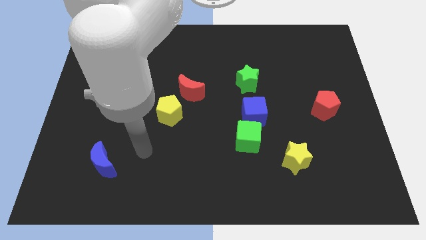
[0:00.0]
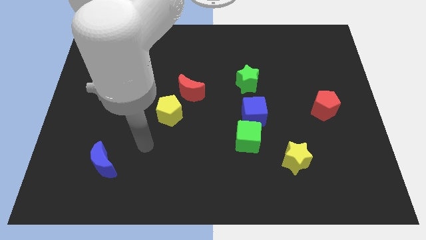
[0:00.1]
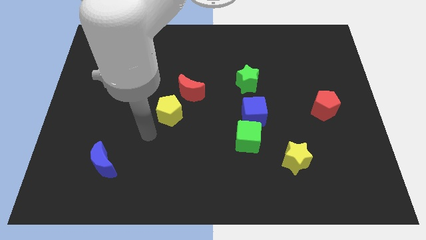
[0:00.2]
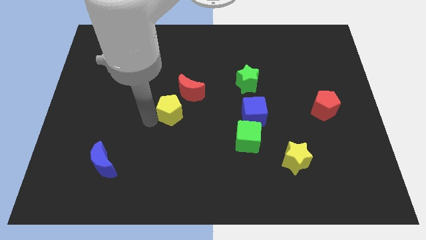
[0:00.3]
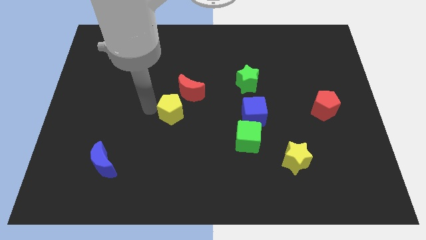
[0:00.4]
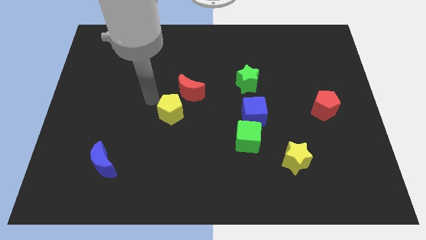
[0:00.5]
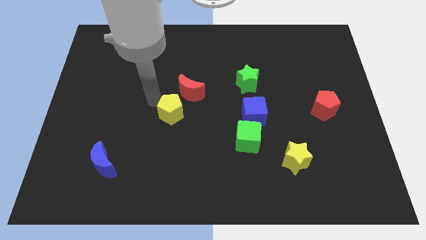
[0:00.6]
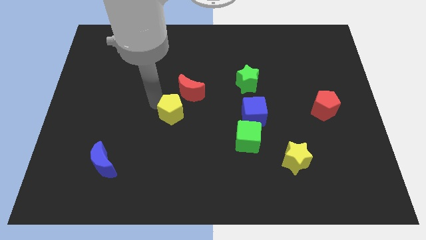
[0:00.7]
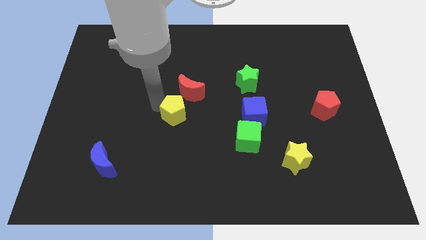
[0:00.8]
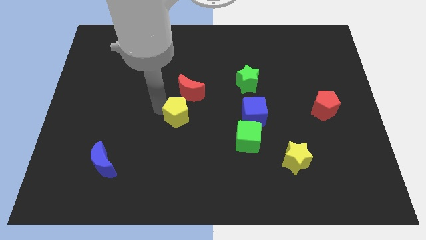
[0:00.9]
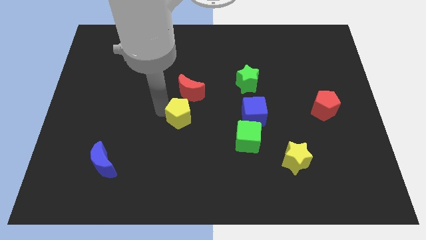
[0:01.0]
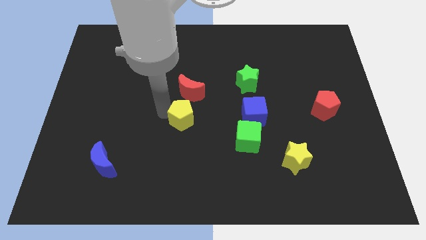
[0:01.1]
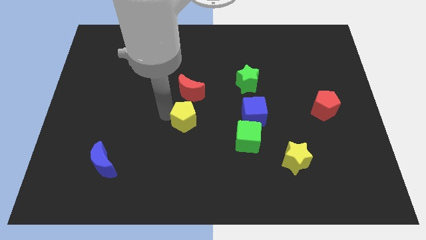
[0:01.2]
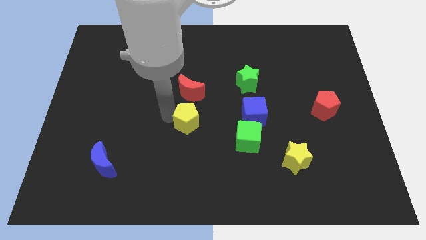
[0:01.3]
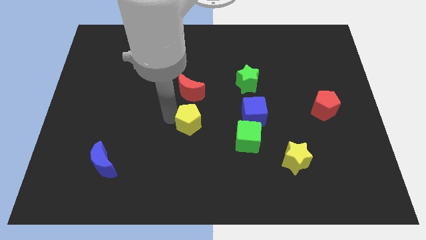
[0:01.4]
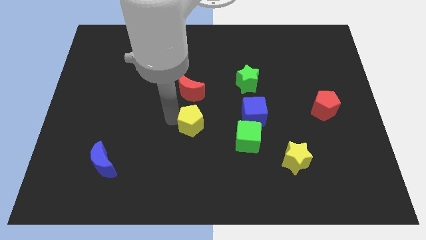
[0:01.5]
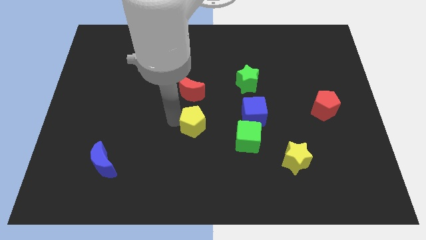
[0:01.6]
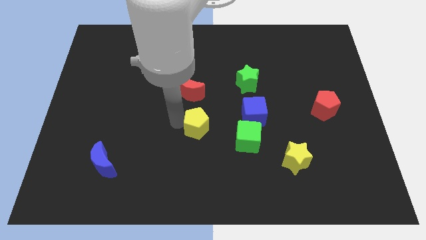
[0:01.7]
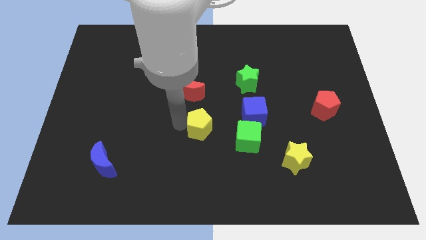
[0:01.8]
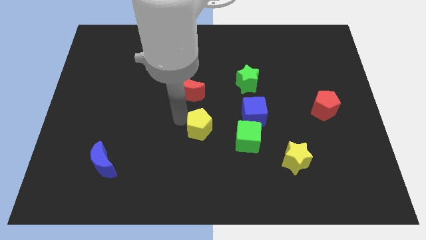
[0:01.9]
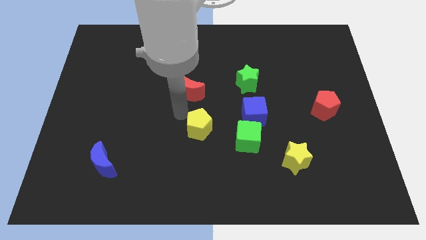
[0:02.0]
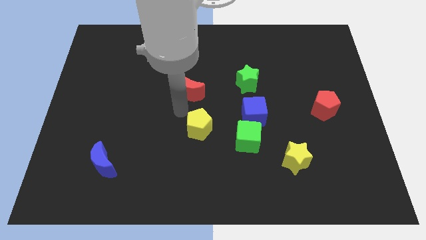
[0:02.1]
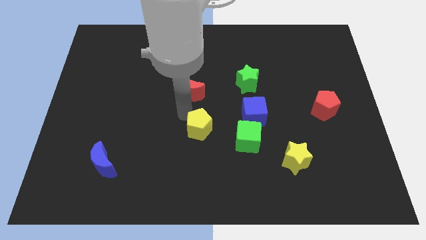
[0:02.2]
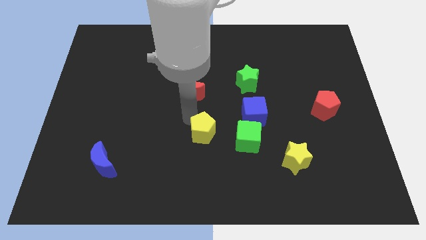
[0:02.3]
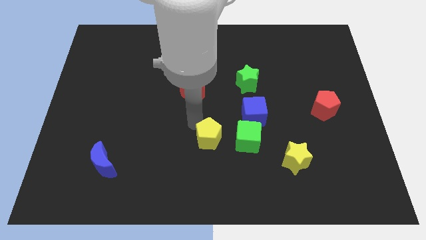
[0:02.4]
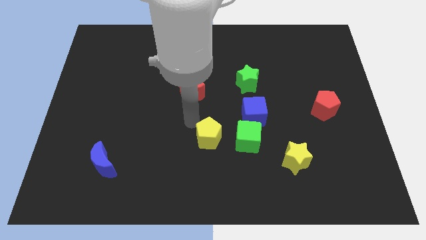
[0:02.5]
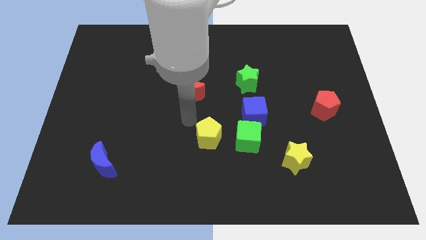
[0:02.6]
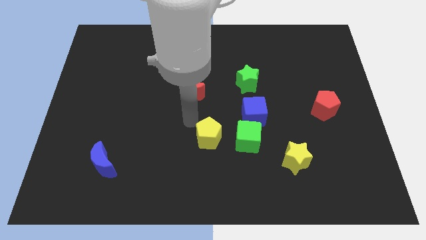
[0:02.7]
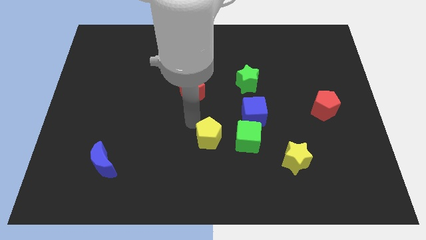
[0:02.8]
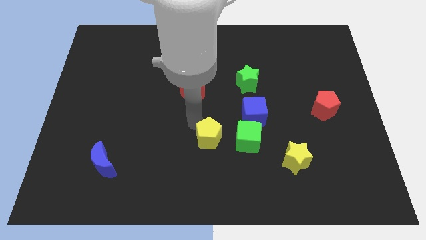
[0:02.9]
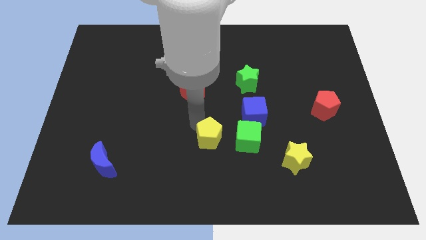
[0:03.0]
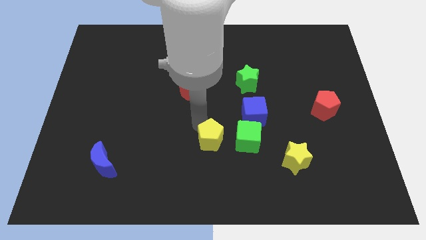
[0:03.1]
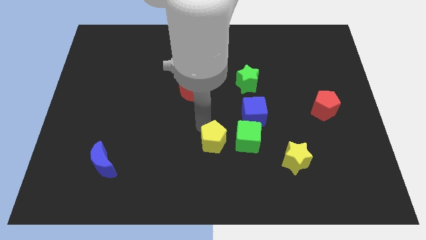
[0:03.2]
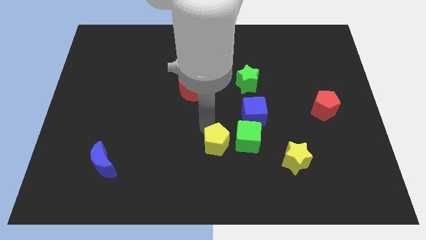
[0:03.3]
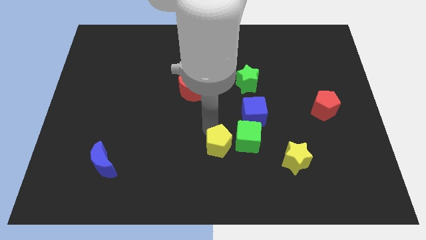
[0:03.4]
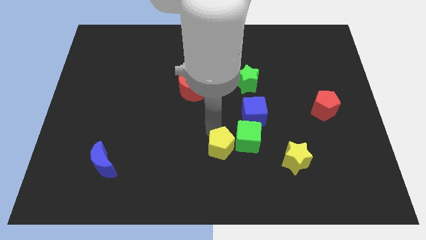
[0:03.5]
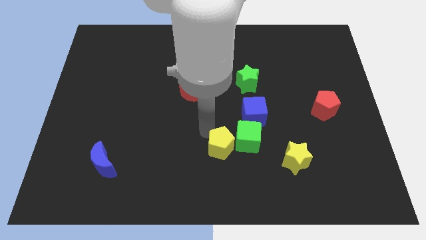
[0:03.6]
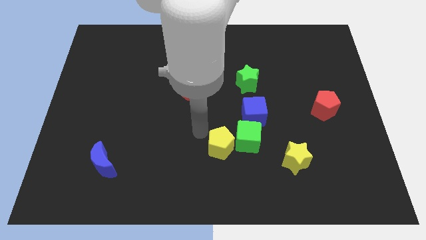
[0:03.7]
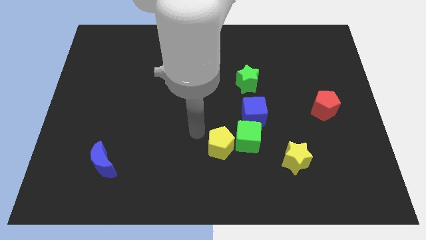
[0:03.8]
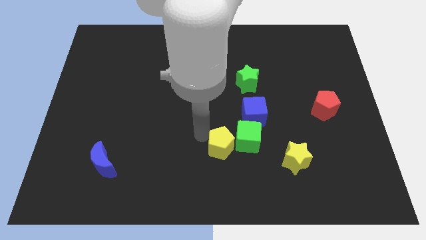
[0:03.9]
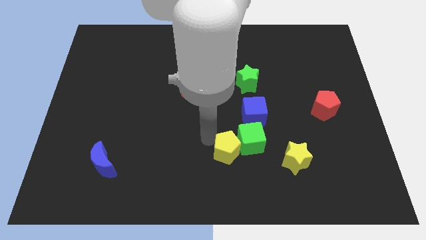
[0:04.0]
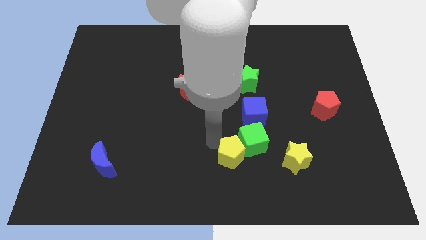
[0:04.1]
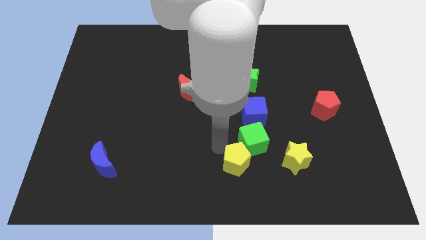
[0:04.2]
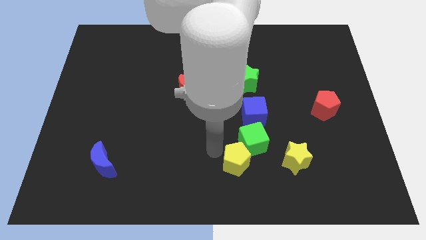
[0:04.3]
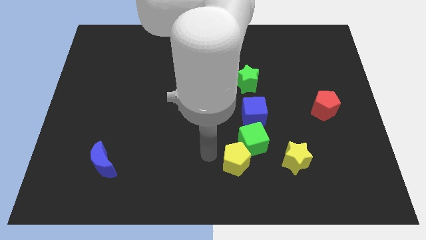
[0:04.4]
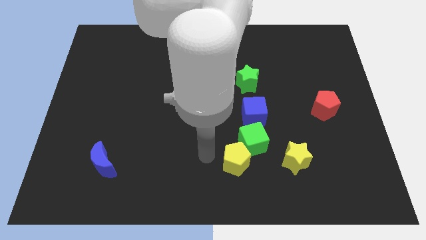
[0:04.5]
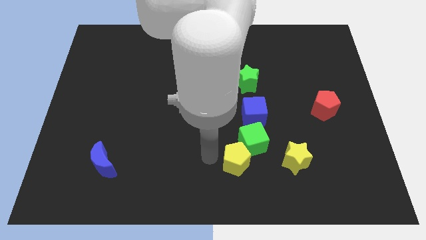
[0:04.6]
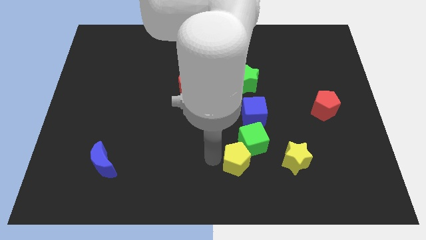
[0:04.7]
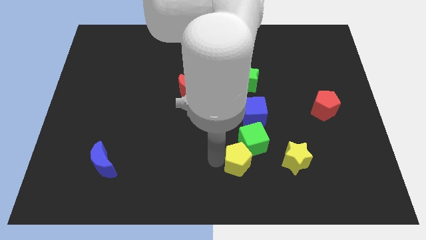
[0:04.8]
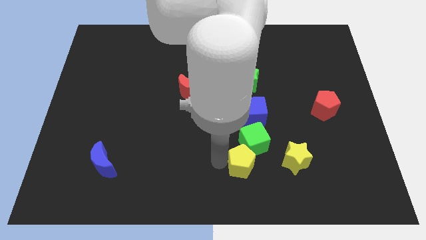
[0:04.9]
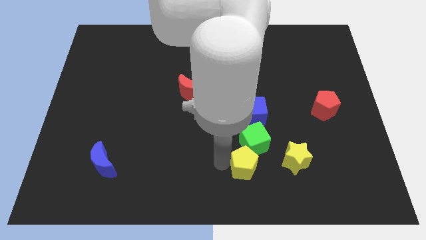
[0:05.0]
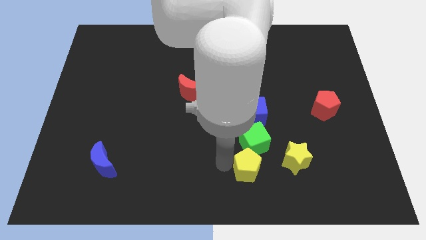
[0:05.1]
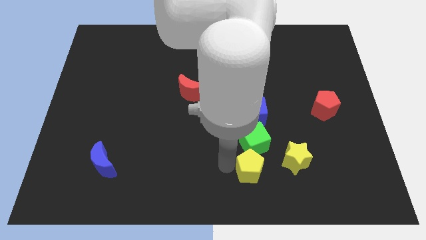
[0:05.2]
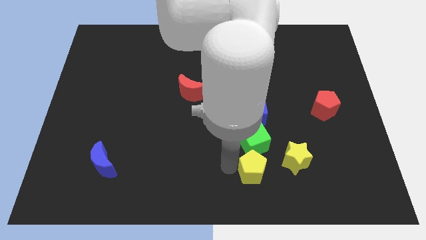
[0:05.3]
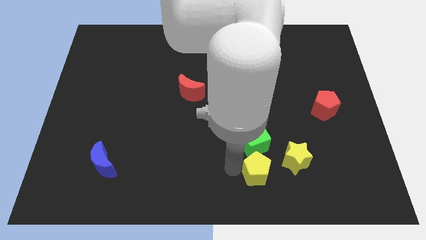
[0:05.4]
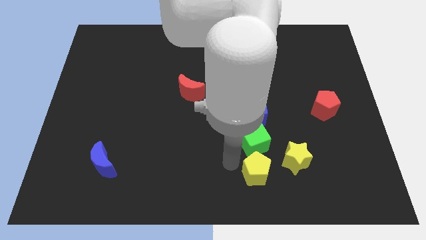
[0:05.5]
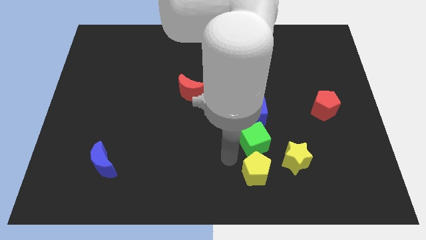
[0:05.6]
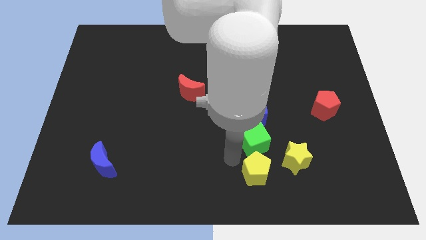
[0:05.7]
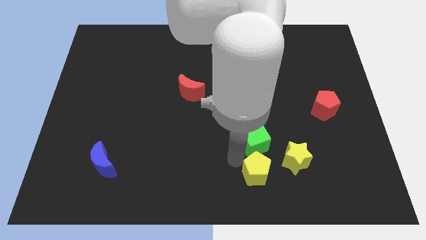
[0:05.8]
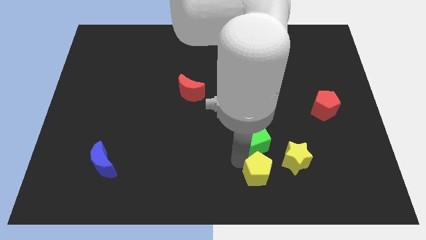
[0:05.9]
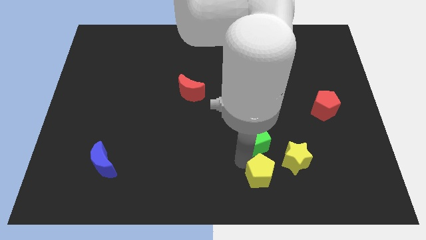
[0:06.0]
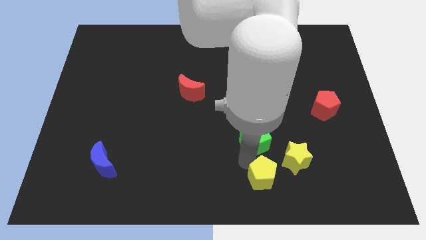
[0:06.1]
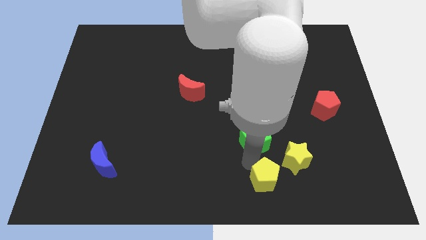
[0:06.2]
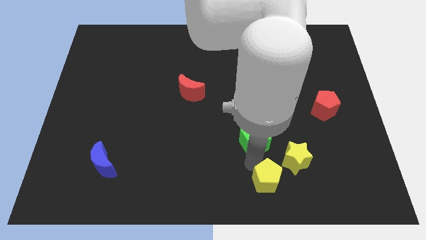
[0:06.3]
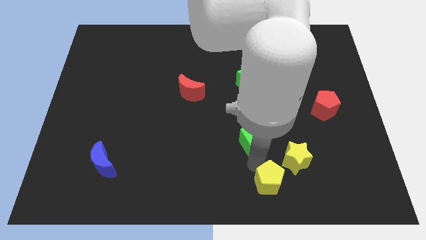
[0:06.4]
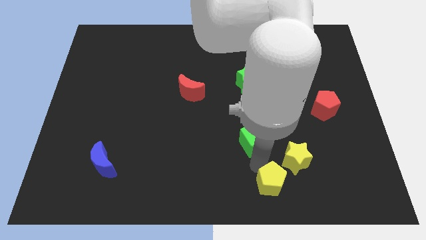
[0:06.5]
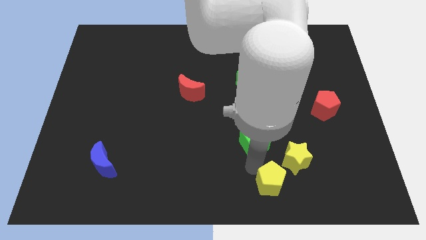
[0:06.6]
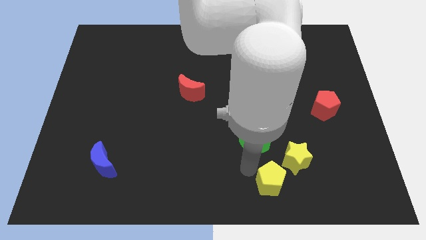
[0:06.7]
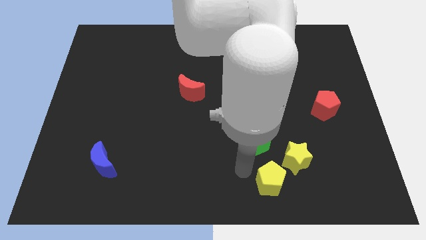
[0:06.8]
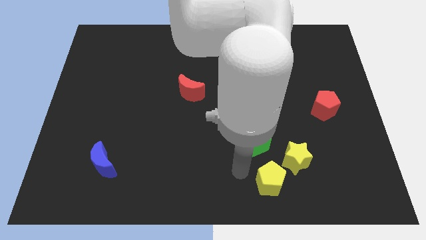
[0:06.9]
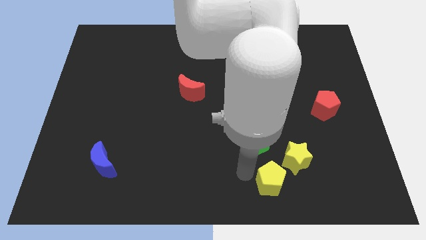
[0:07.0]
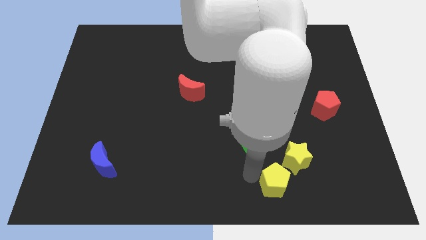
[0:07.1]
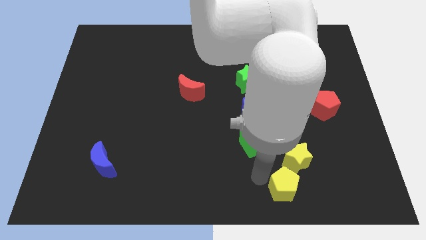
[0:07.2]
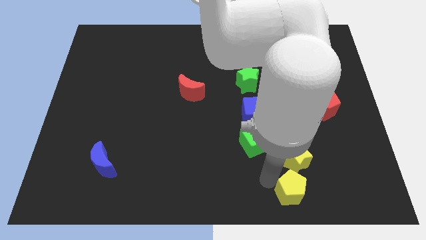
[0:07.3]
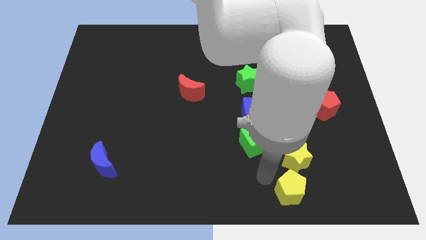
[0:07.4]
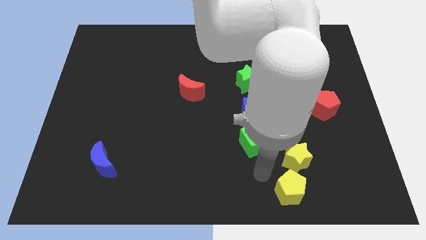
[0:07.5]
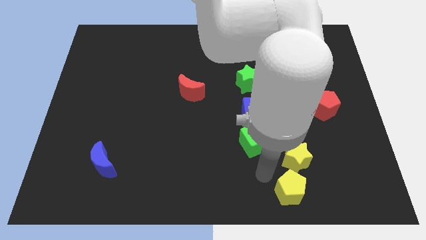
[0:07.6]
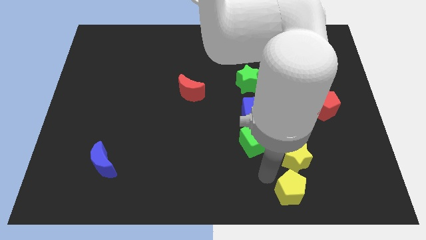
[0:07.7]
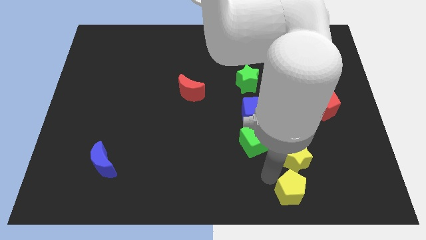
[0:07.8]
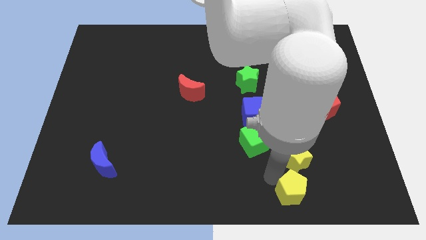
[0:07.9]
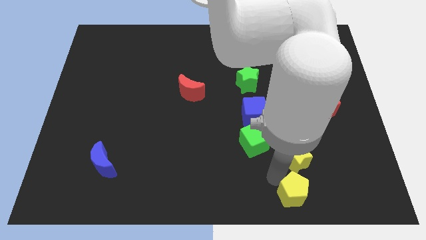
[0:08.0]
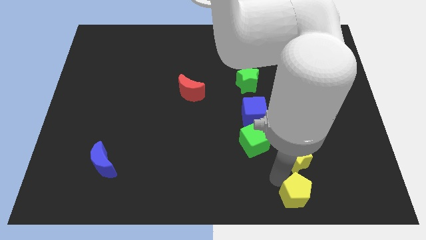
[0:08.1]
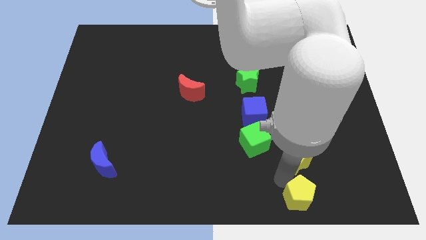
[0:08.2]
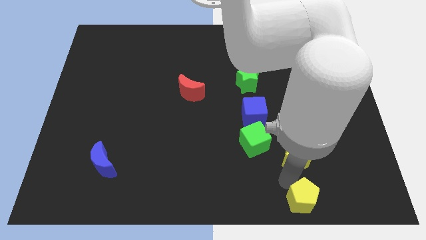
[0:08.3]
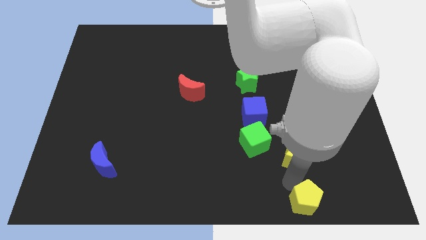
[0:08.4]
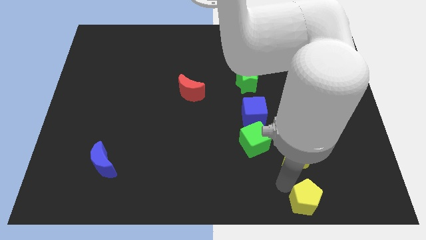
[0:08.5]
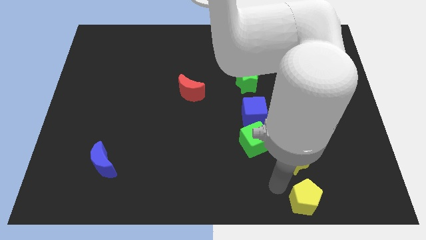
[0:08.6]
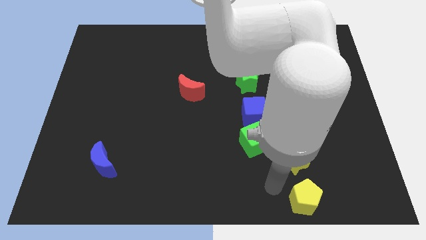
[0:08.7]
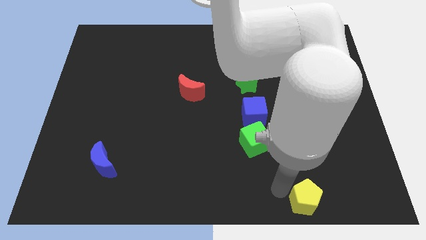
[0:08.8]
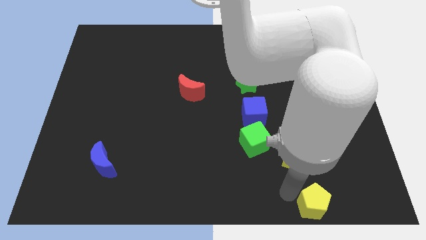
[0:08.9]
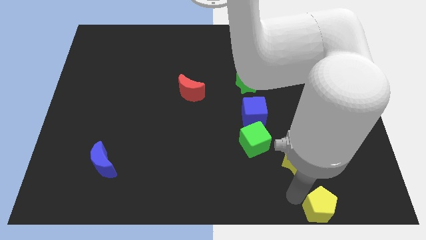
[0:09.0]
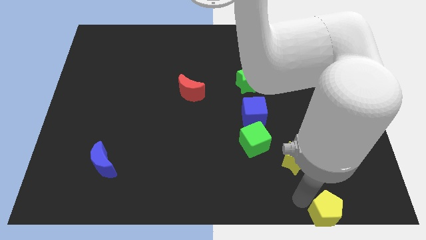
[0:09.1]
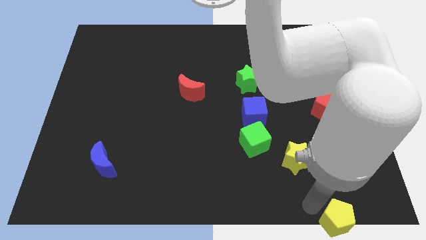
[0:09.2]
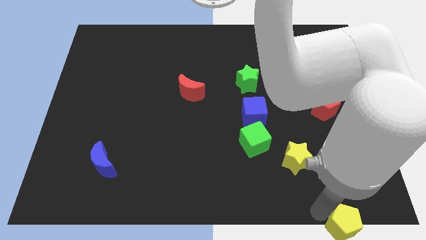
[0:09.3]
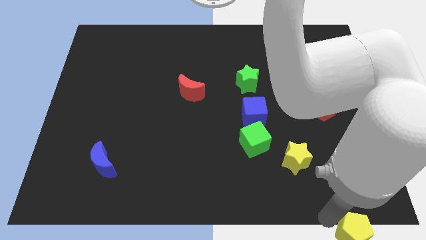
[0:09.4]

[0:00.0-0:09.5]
push the yellow pentagon to the bottom right
